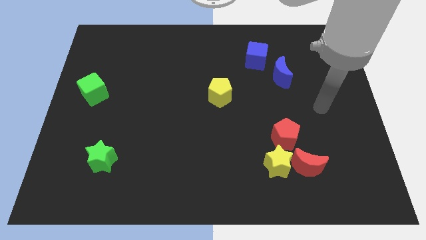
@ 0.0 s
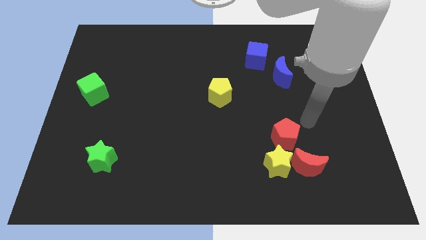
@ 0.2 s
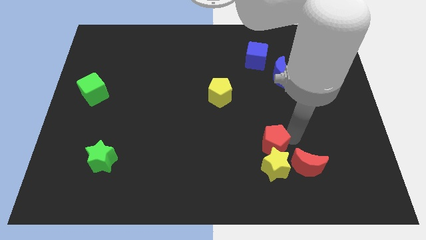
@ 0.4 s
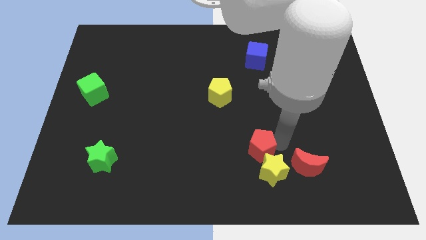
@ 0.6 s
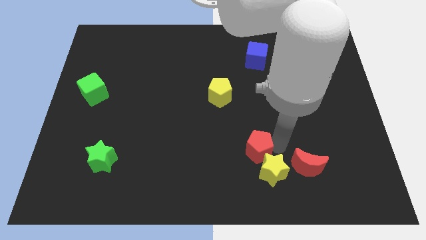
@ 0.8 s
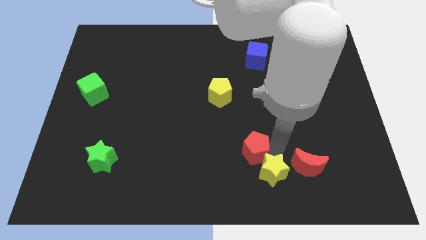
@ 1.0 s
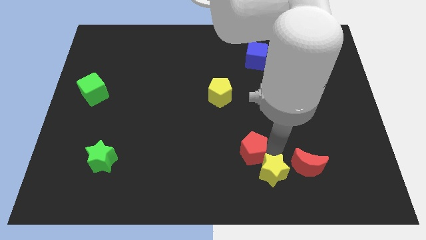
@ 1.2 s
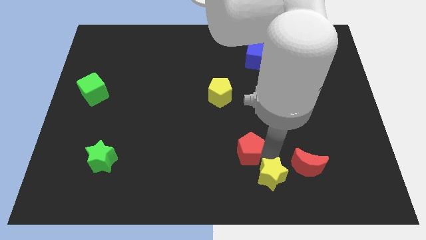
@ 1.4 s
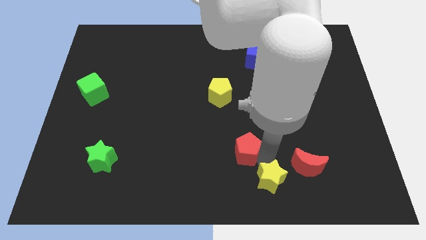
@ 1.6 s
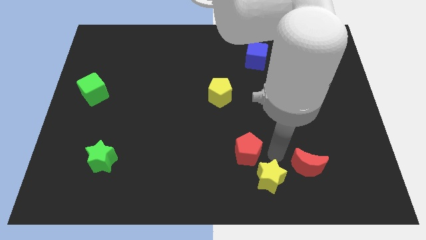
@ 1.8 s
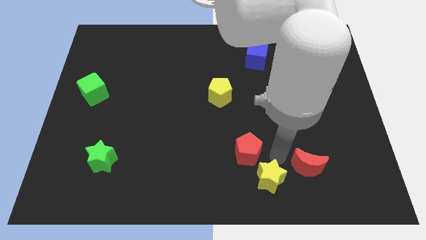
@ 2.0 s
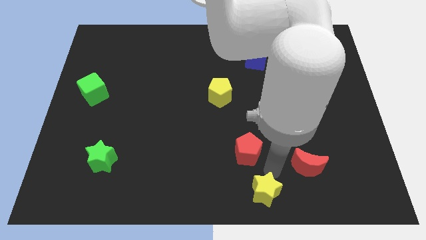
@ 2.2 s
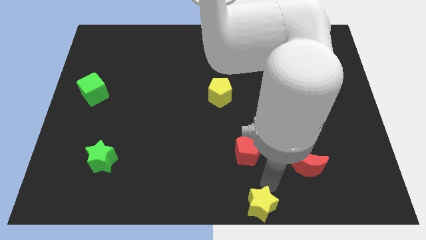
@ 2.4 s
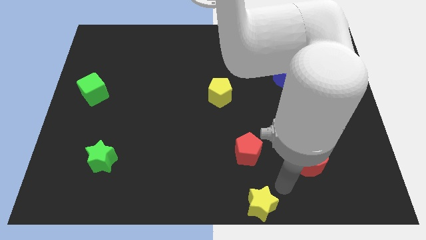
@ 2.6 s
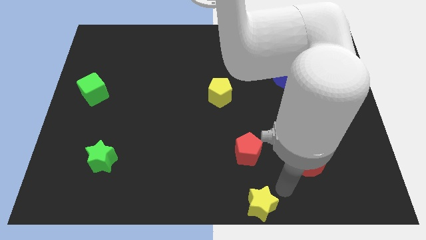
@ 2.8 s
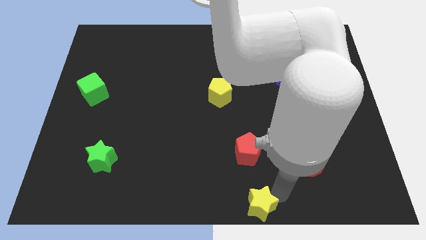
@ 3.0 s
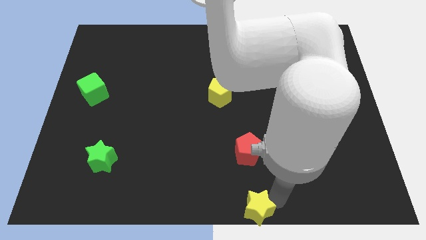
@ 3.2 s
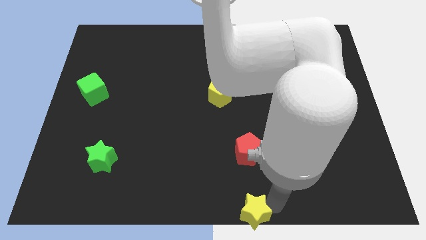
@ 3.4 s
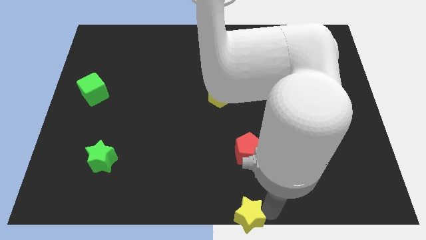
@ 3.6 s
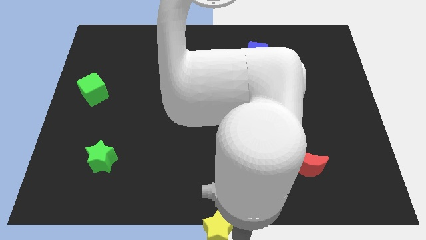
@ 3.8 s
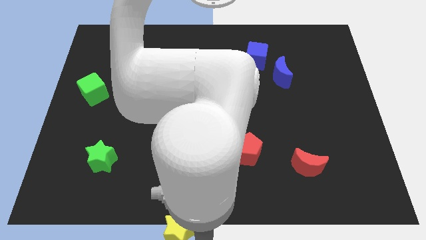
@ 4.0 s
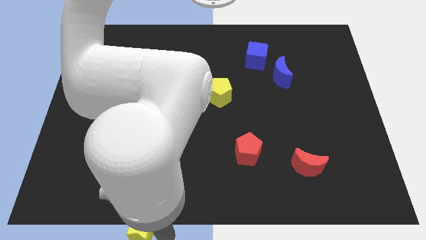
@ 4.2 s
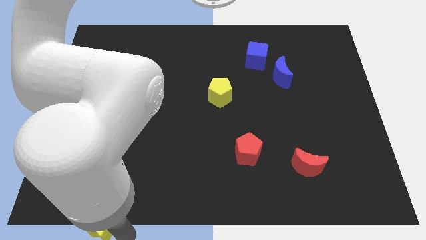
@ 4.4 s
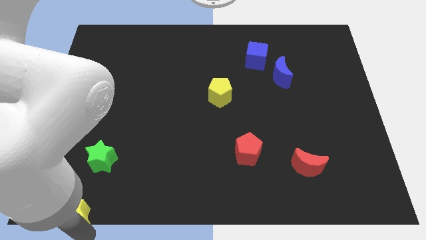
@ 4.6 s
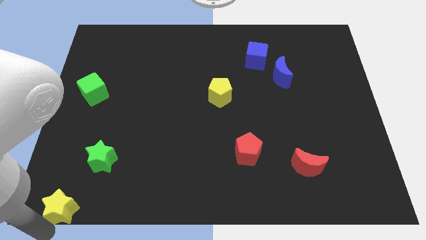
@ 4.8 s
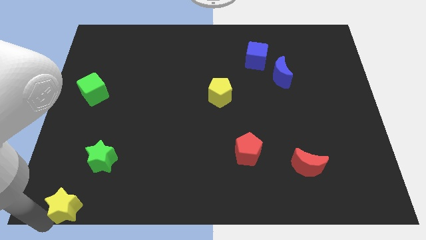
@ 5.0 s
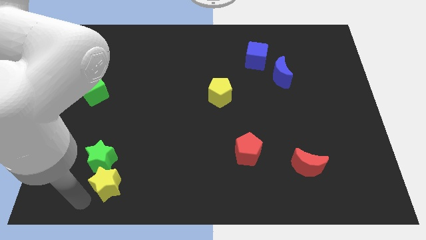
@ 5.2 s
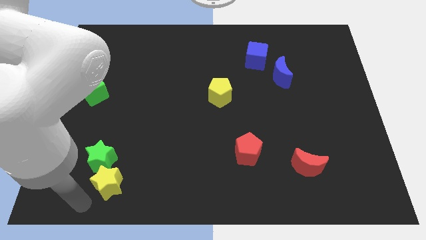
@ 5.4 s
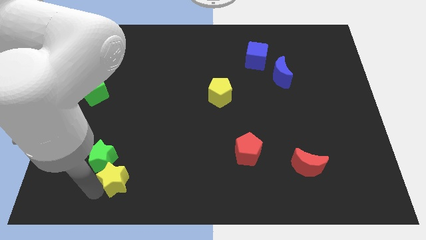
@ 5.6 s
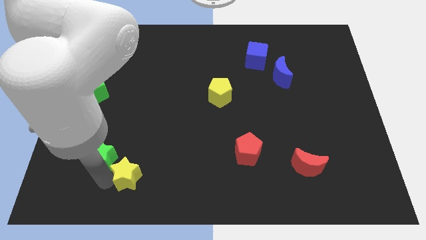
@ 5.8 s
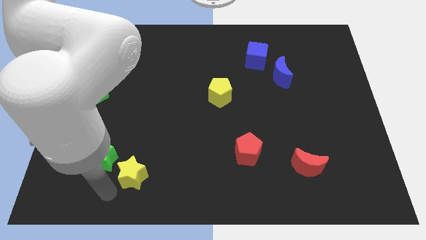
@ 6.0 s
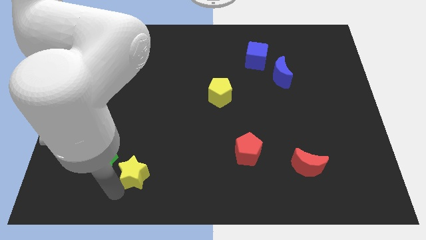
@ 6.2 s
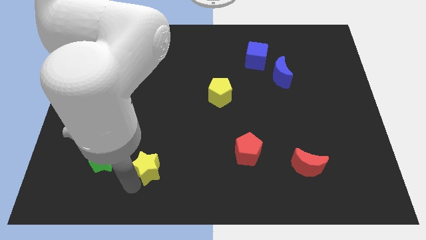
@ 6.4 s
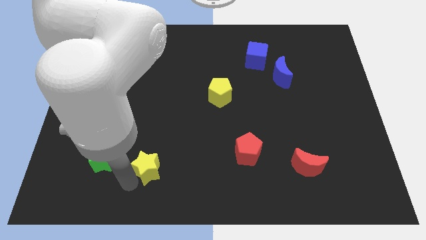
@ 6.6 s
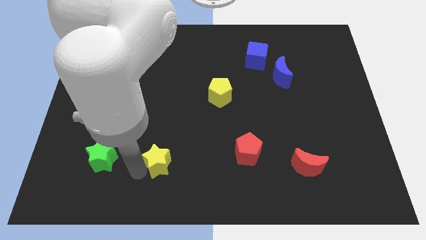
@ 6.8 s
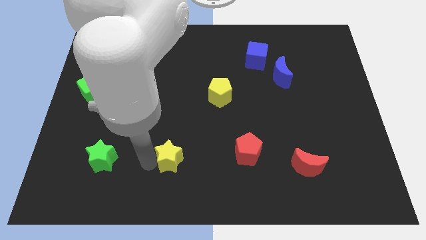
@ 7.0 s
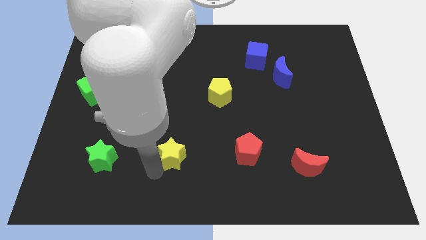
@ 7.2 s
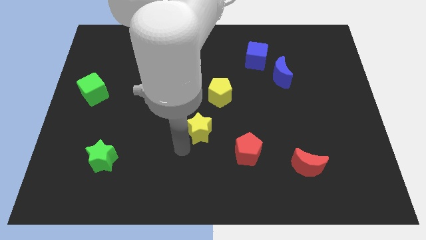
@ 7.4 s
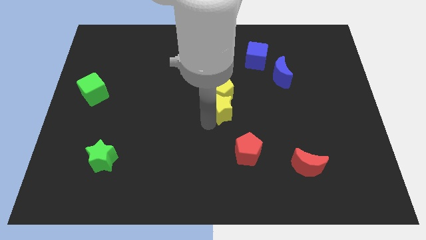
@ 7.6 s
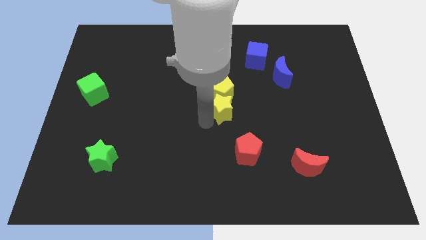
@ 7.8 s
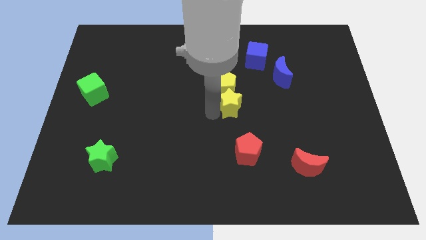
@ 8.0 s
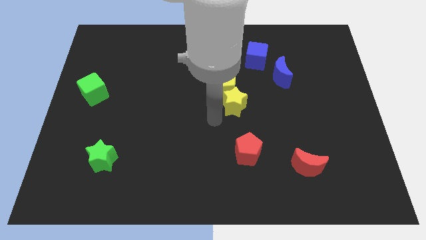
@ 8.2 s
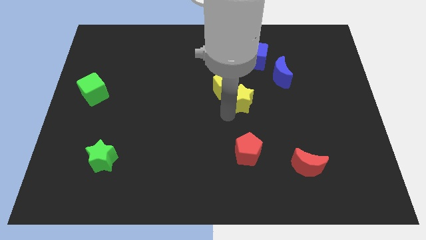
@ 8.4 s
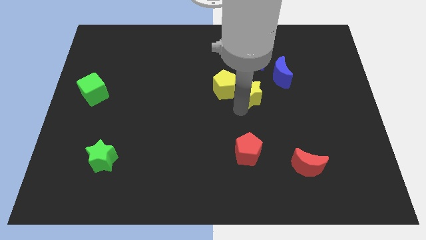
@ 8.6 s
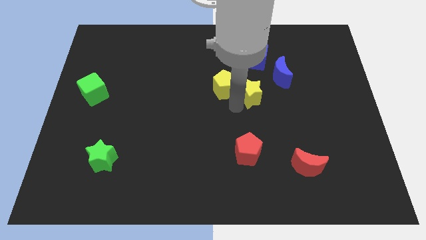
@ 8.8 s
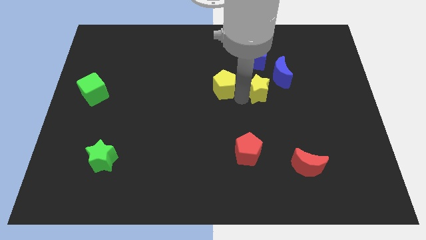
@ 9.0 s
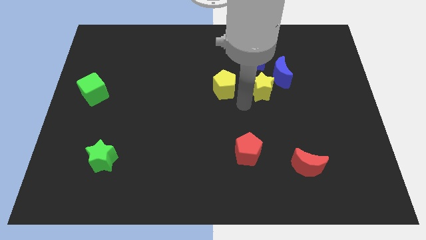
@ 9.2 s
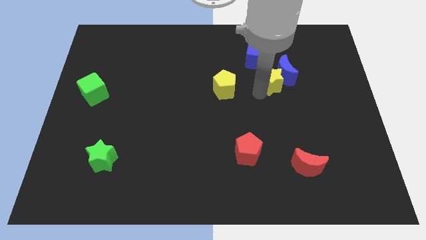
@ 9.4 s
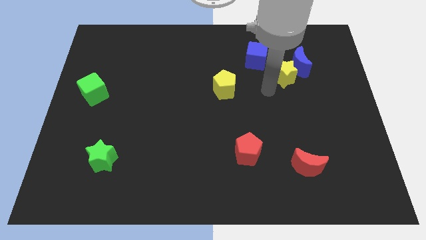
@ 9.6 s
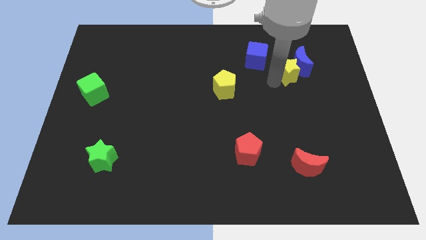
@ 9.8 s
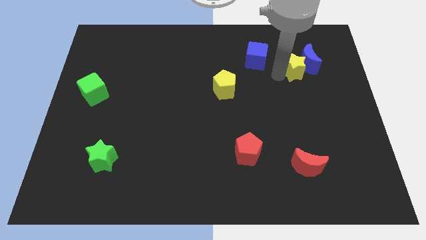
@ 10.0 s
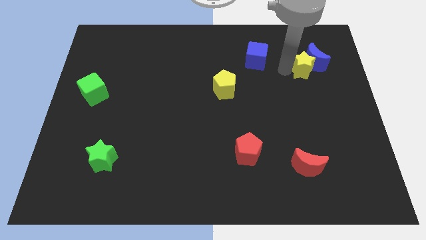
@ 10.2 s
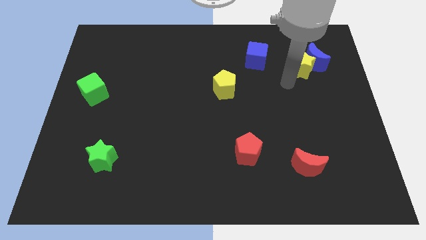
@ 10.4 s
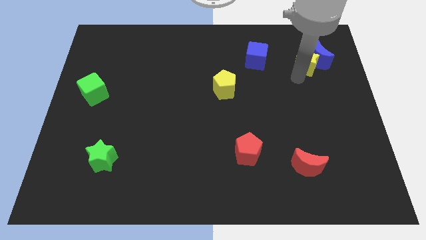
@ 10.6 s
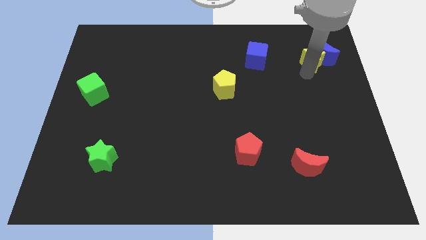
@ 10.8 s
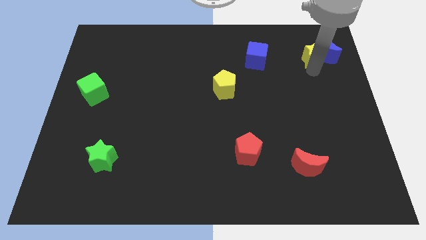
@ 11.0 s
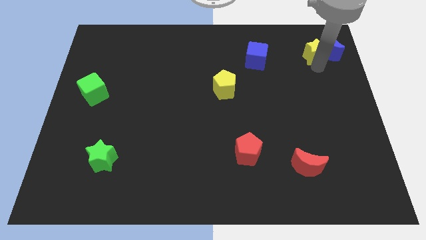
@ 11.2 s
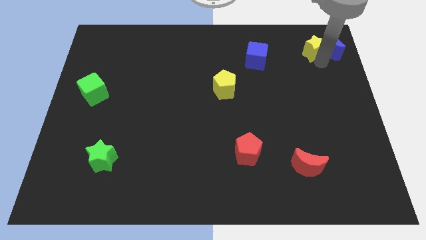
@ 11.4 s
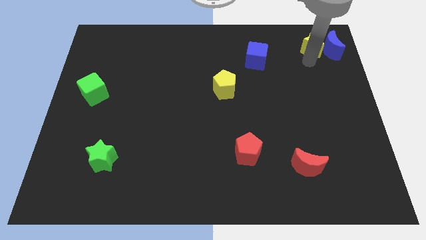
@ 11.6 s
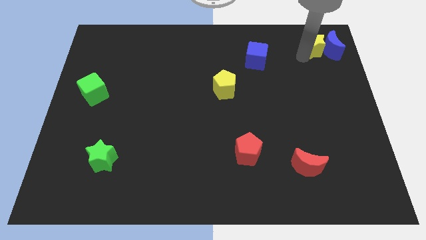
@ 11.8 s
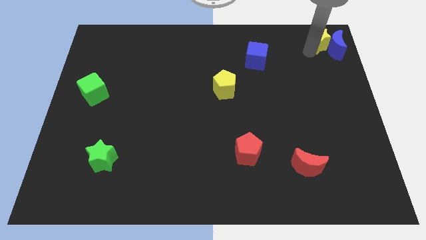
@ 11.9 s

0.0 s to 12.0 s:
put the yellow star to the top right
